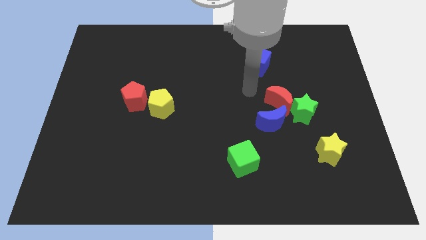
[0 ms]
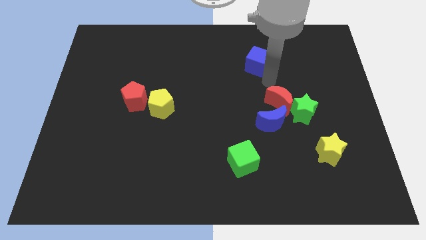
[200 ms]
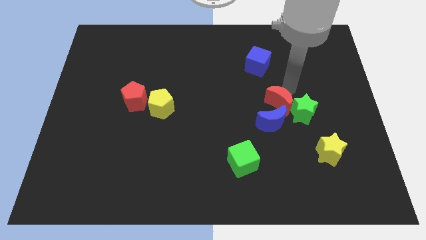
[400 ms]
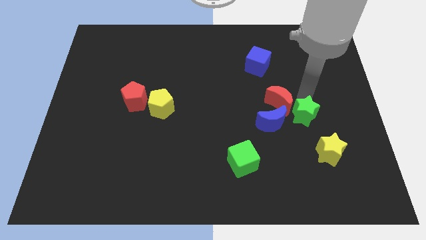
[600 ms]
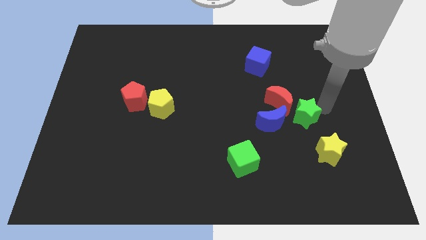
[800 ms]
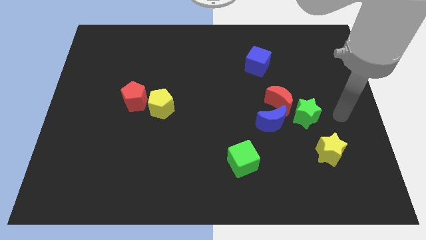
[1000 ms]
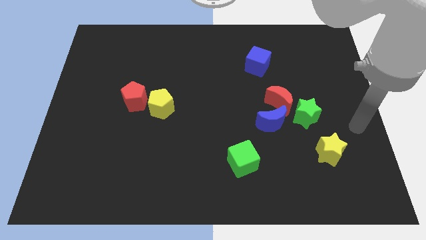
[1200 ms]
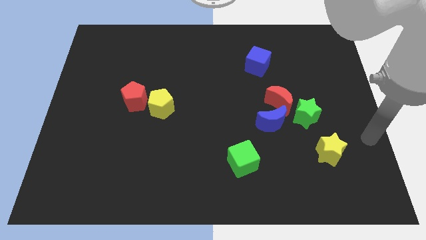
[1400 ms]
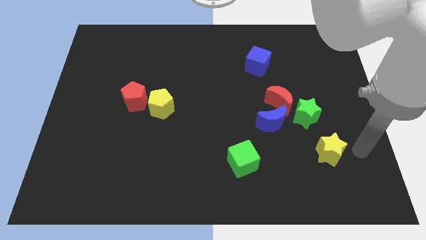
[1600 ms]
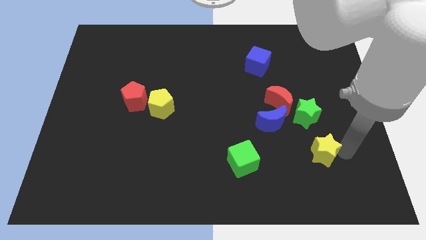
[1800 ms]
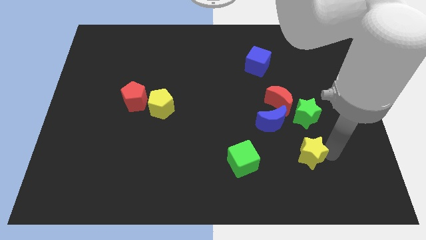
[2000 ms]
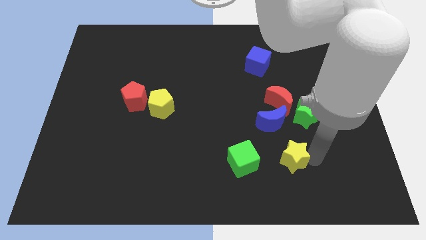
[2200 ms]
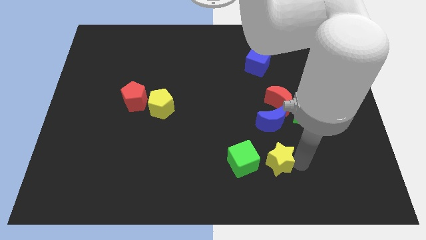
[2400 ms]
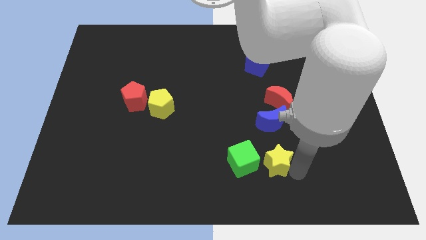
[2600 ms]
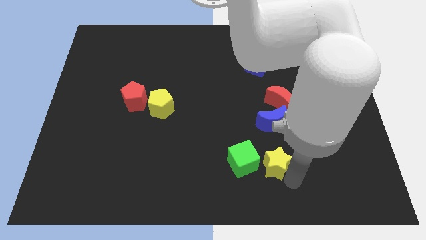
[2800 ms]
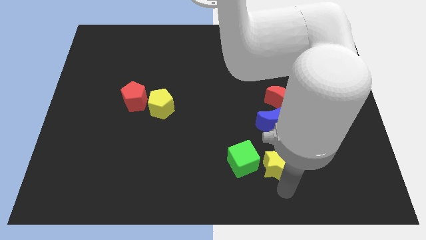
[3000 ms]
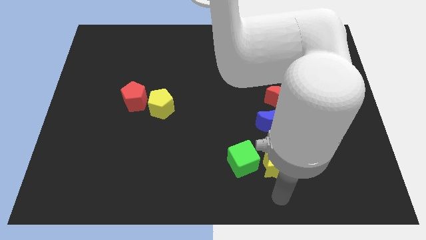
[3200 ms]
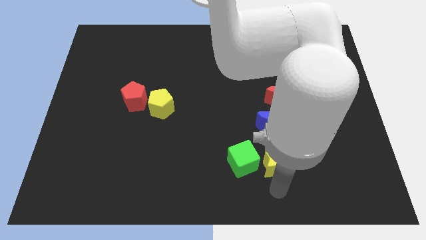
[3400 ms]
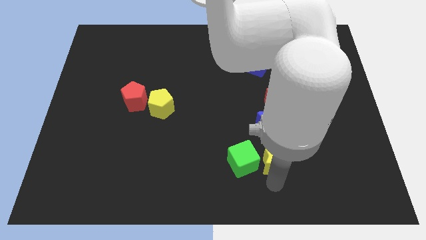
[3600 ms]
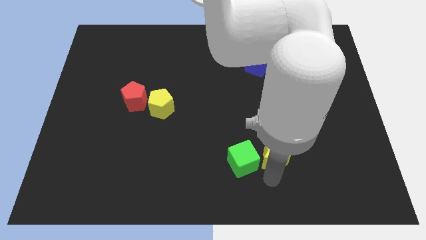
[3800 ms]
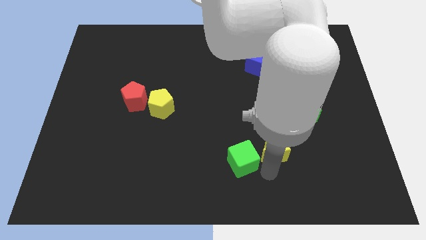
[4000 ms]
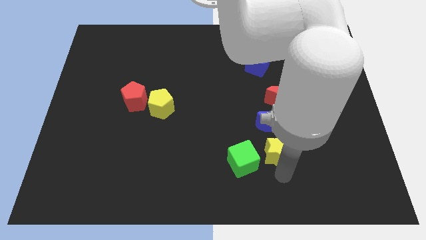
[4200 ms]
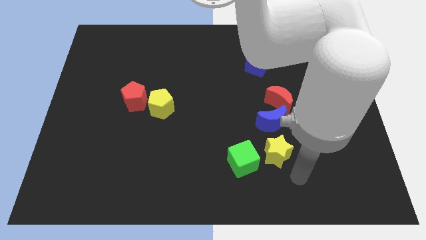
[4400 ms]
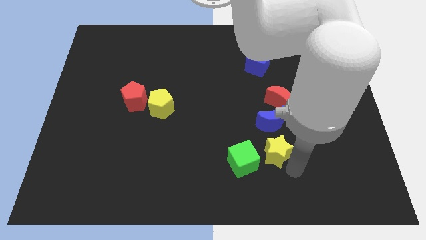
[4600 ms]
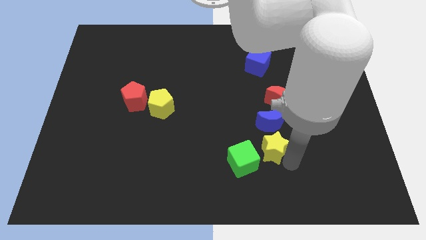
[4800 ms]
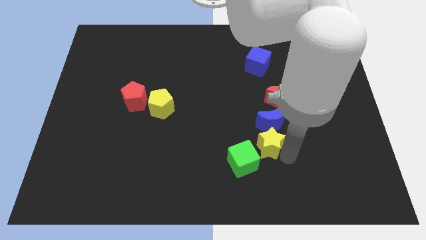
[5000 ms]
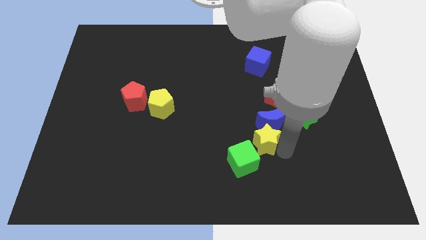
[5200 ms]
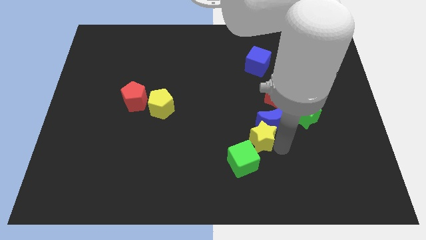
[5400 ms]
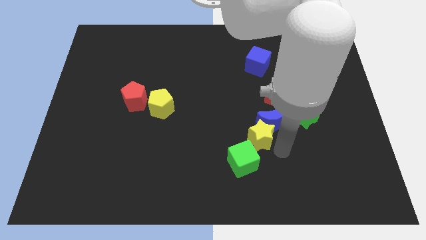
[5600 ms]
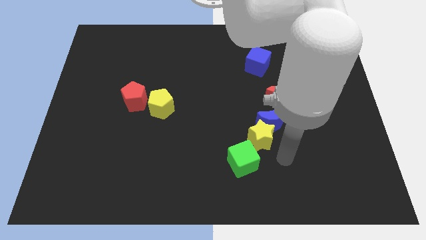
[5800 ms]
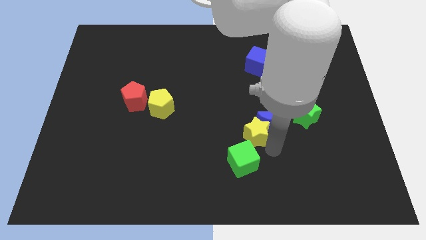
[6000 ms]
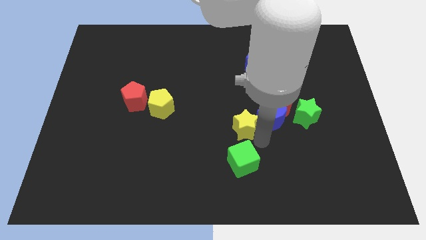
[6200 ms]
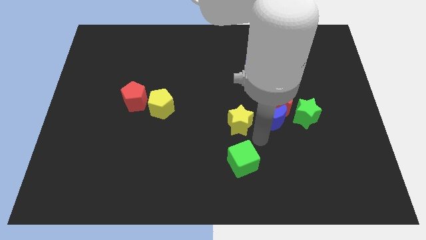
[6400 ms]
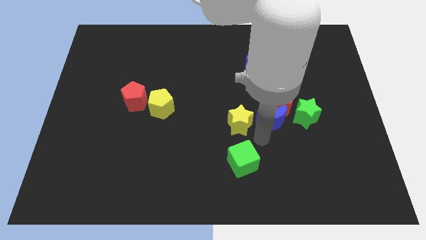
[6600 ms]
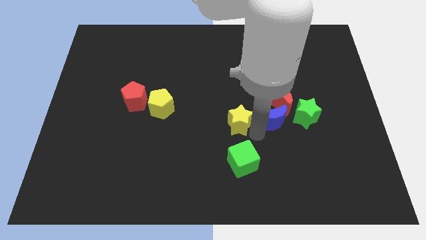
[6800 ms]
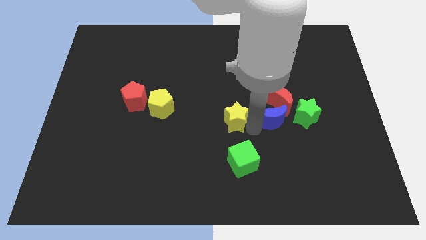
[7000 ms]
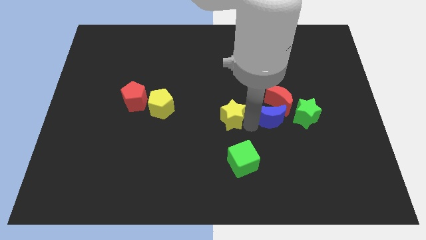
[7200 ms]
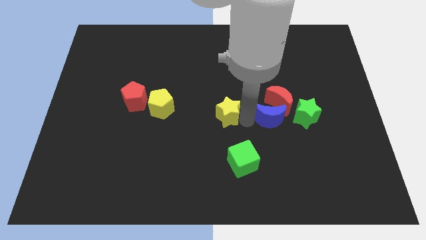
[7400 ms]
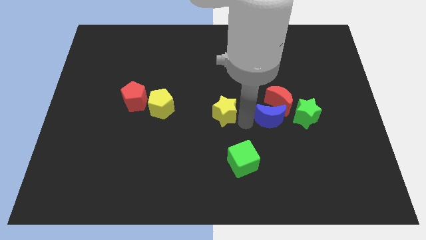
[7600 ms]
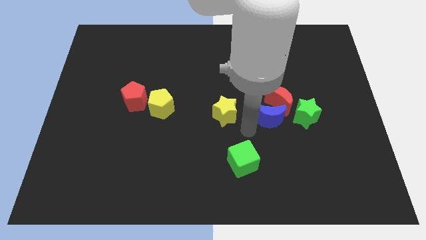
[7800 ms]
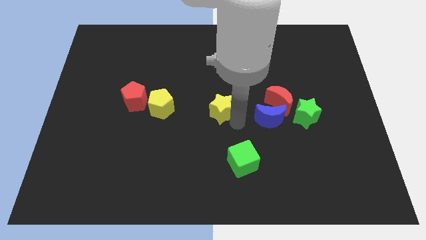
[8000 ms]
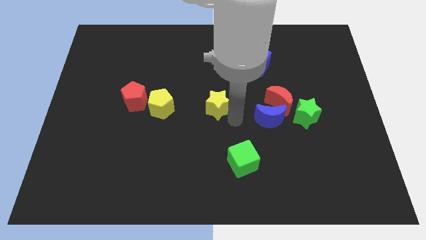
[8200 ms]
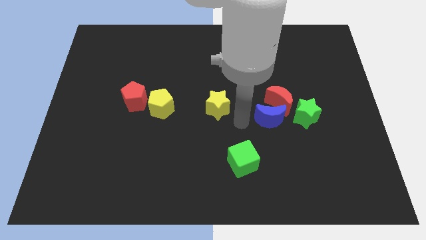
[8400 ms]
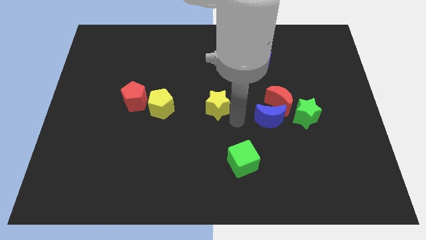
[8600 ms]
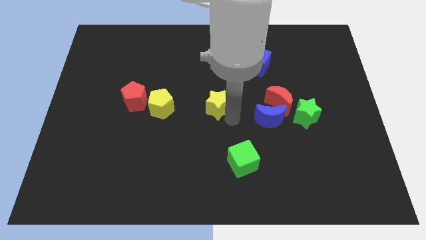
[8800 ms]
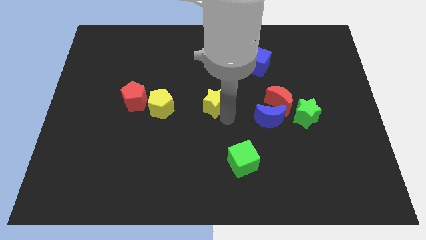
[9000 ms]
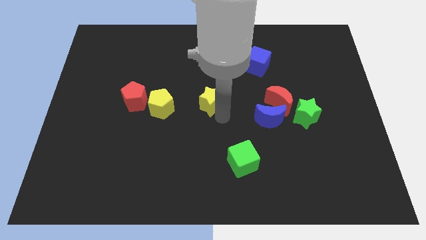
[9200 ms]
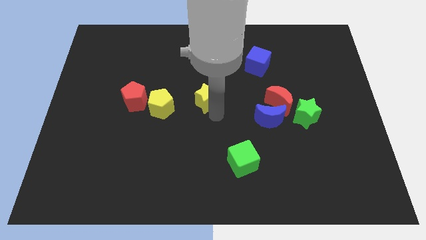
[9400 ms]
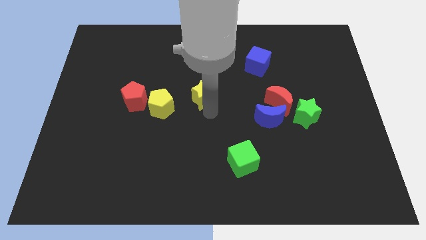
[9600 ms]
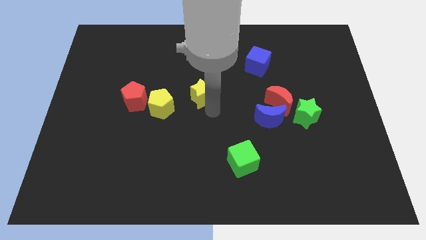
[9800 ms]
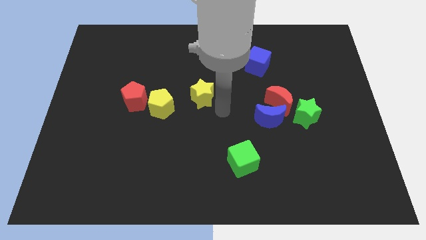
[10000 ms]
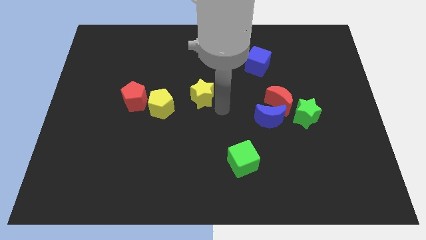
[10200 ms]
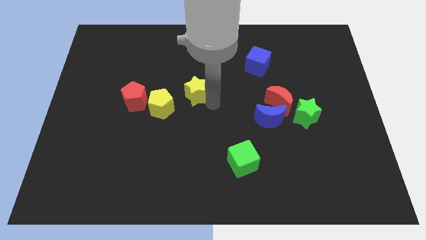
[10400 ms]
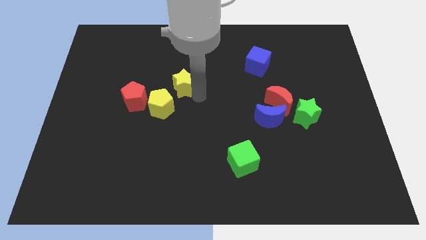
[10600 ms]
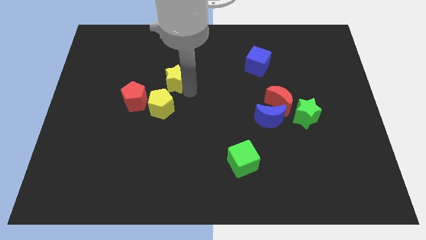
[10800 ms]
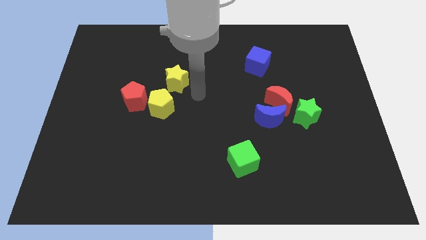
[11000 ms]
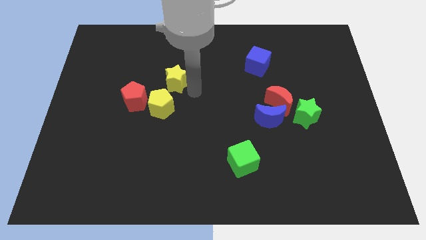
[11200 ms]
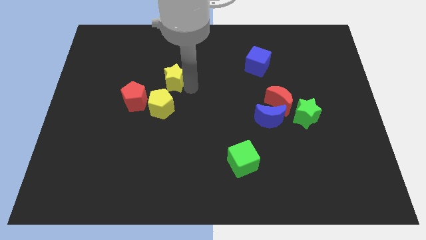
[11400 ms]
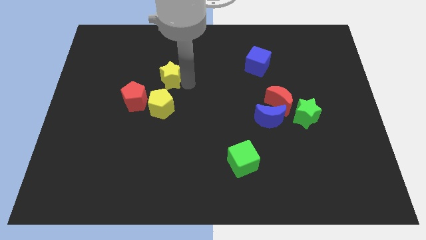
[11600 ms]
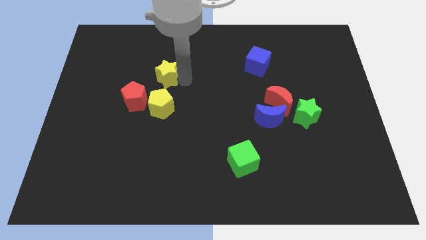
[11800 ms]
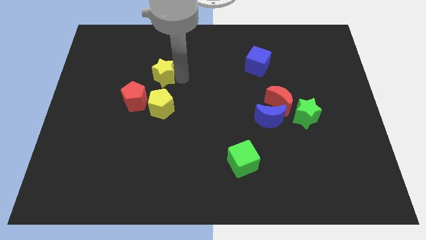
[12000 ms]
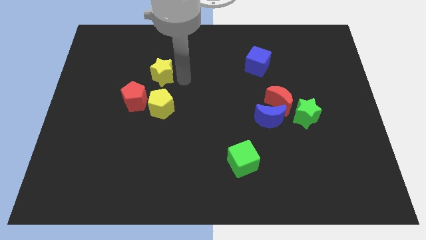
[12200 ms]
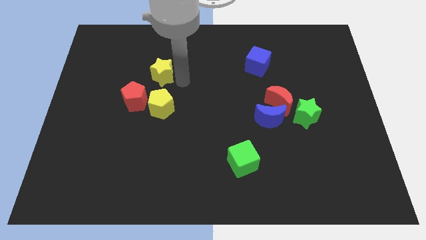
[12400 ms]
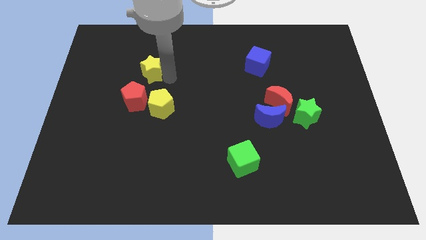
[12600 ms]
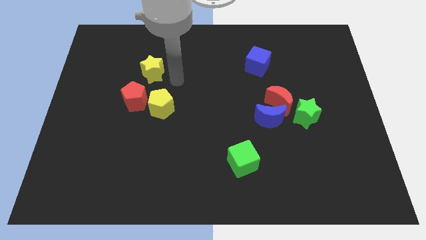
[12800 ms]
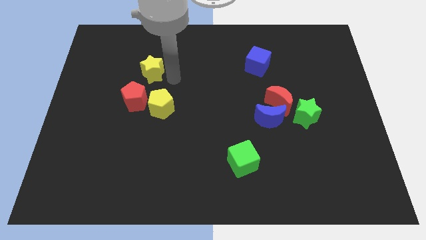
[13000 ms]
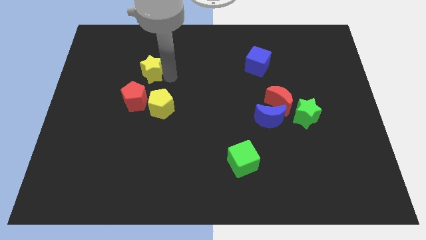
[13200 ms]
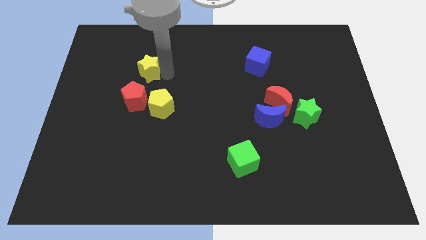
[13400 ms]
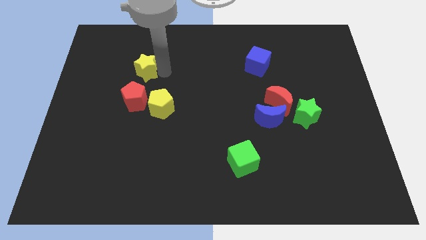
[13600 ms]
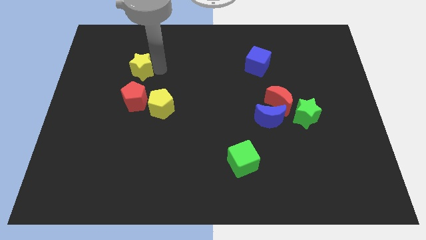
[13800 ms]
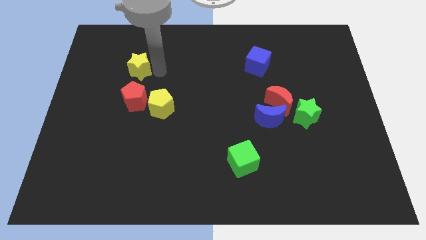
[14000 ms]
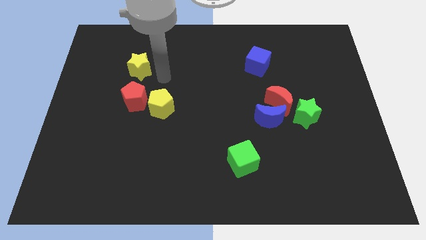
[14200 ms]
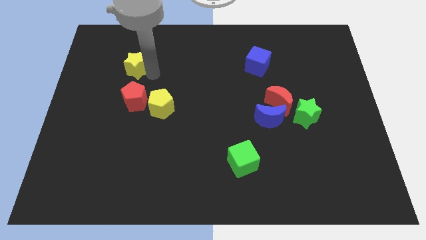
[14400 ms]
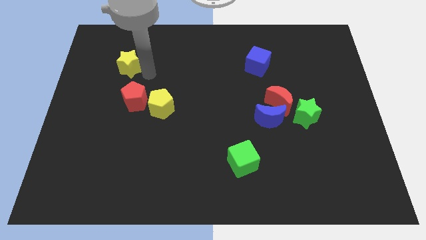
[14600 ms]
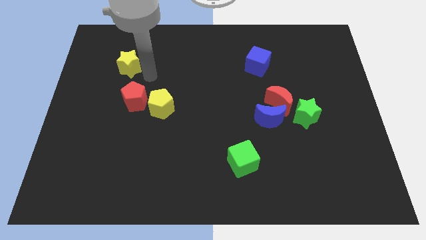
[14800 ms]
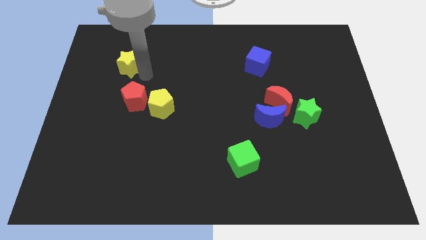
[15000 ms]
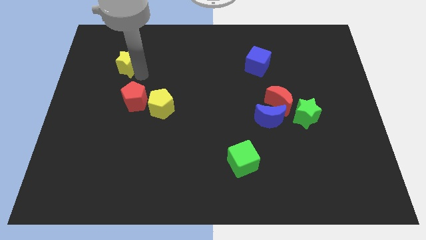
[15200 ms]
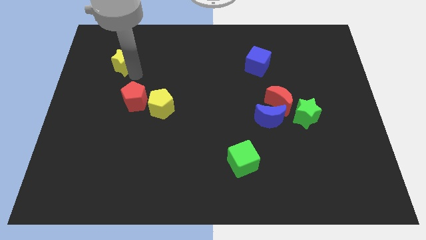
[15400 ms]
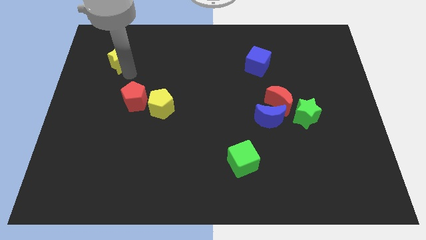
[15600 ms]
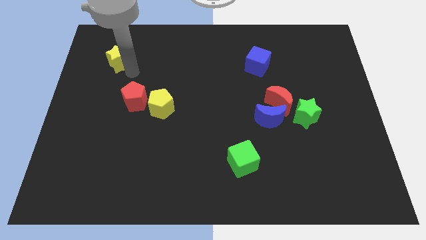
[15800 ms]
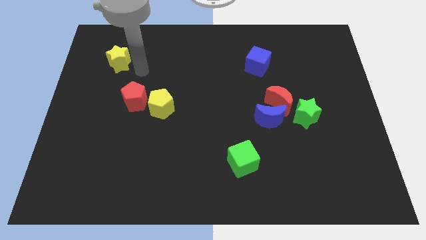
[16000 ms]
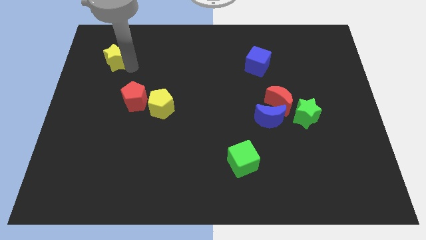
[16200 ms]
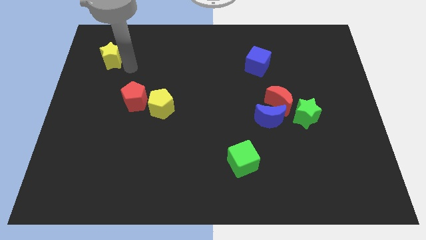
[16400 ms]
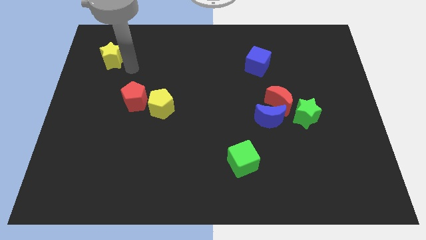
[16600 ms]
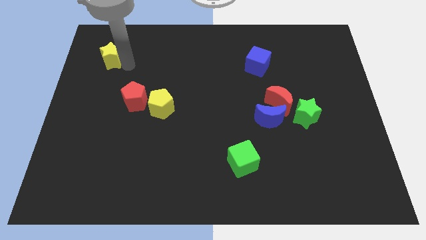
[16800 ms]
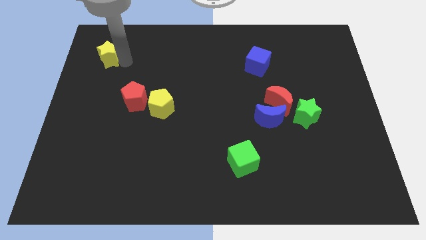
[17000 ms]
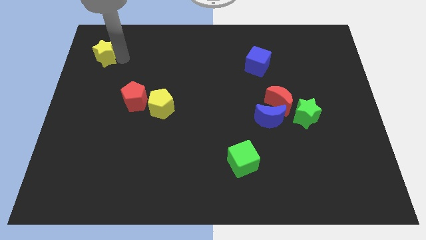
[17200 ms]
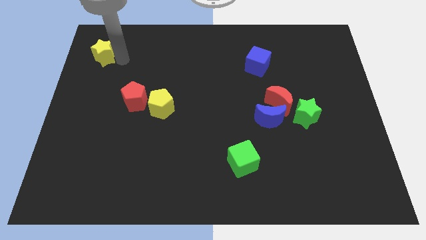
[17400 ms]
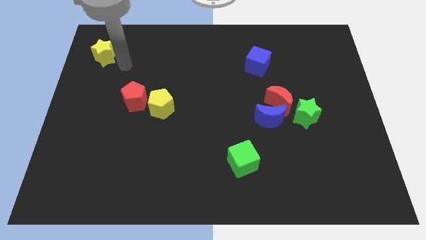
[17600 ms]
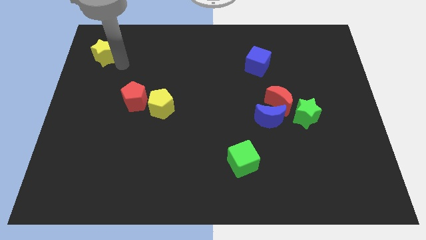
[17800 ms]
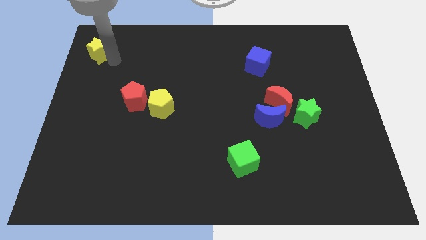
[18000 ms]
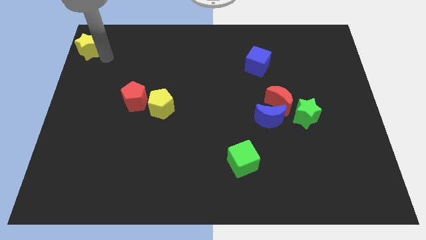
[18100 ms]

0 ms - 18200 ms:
push the yellow star to the top left of the board
